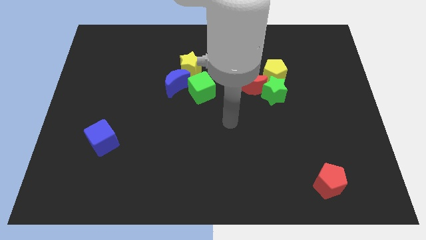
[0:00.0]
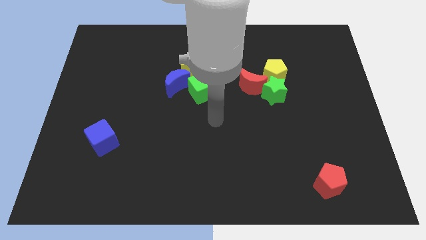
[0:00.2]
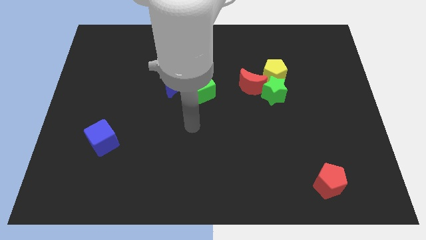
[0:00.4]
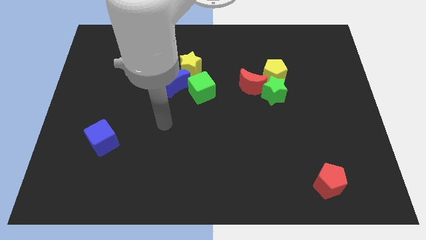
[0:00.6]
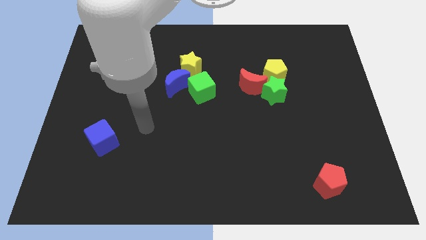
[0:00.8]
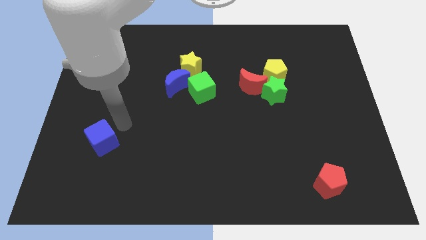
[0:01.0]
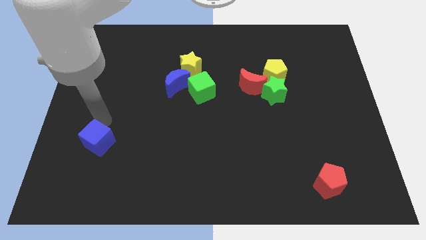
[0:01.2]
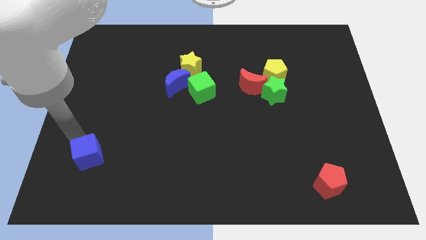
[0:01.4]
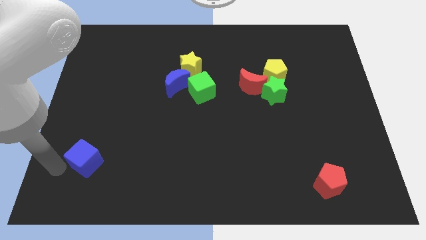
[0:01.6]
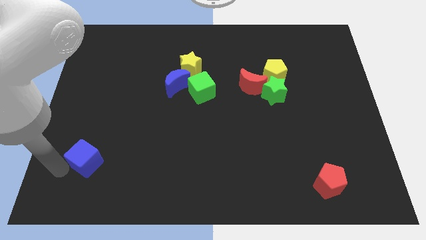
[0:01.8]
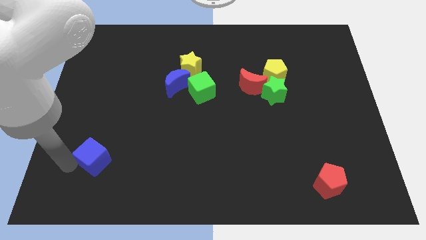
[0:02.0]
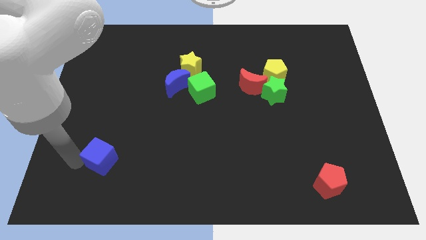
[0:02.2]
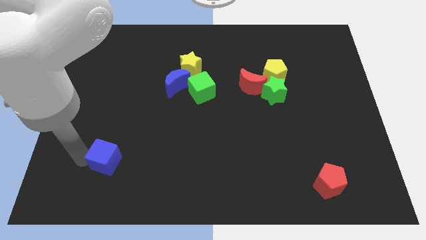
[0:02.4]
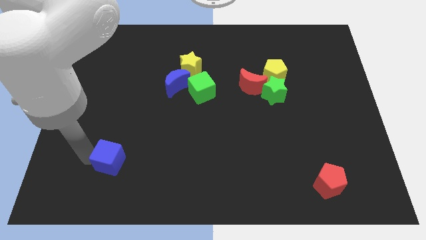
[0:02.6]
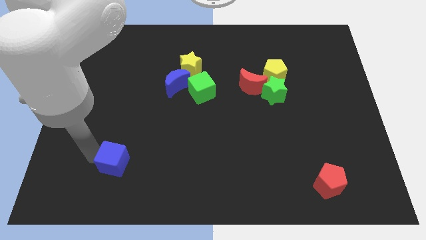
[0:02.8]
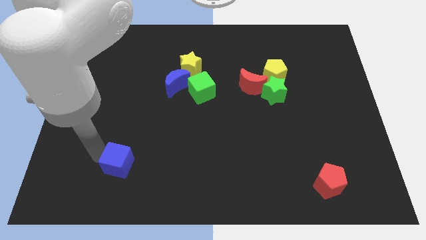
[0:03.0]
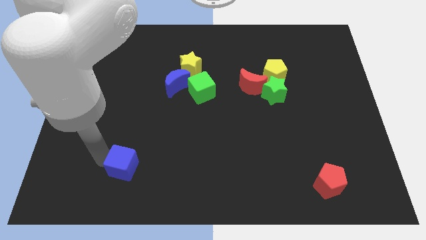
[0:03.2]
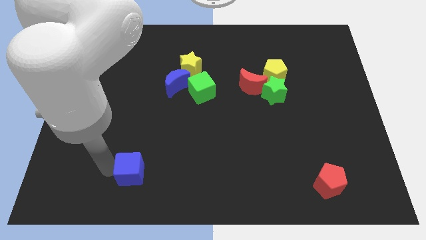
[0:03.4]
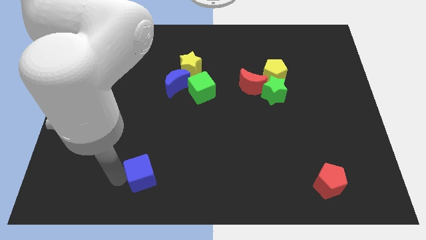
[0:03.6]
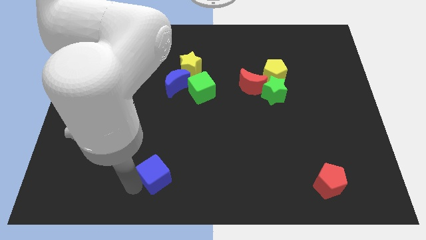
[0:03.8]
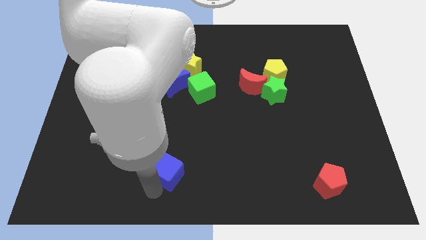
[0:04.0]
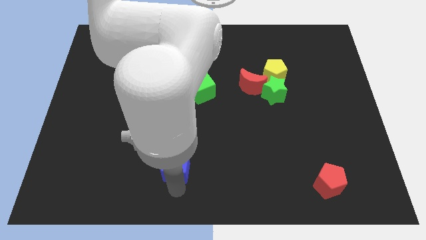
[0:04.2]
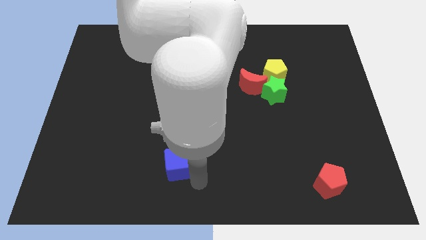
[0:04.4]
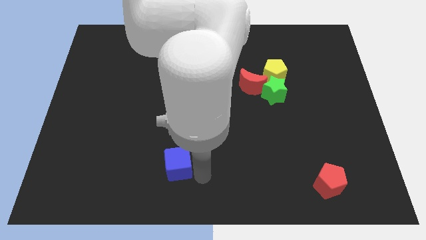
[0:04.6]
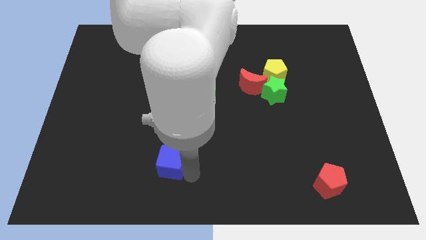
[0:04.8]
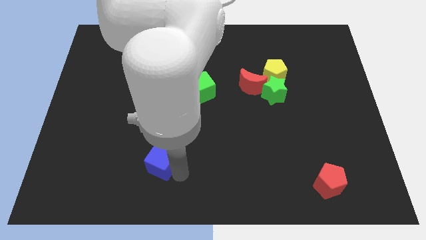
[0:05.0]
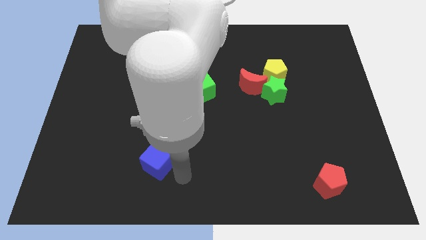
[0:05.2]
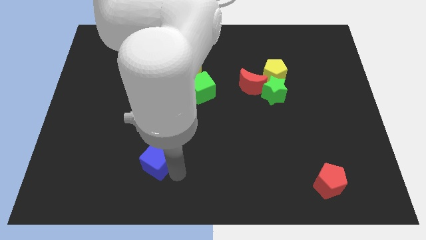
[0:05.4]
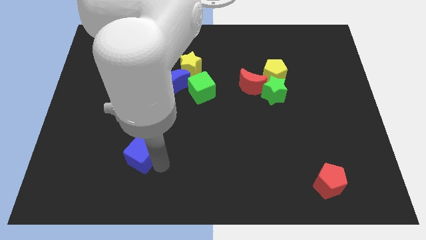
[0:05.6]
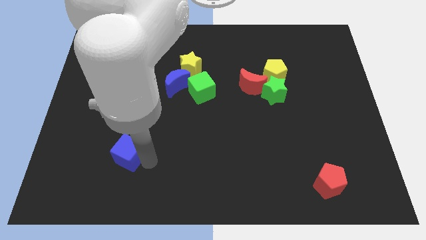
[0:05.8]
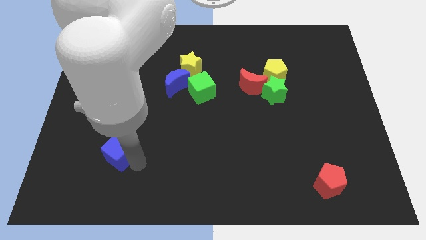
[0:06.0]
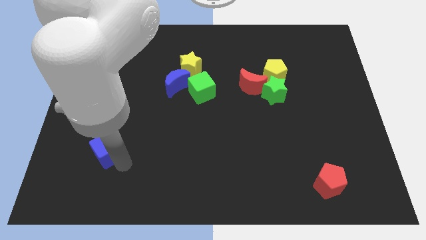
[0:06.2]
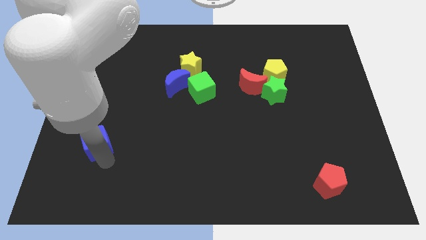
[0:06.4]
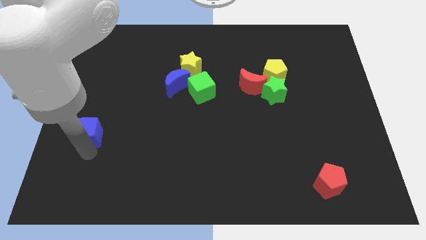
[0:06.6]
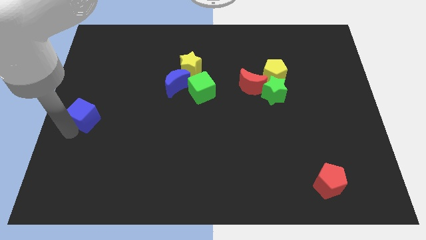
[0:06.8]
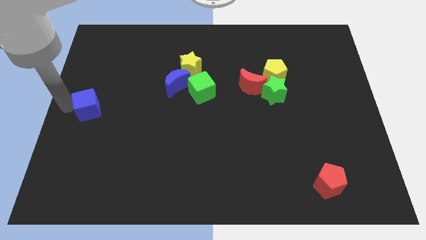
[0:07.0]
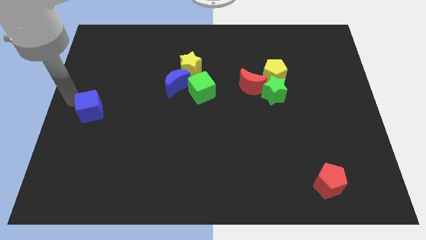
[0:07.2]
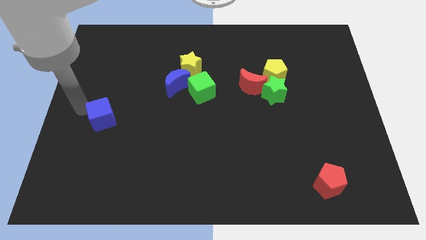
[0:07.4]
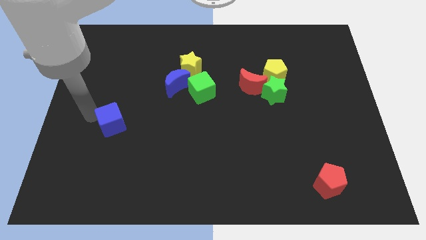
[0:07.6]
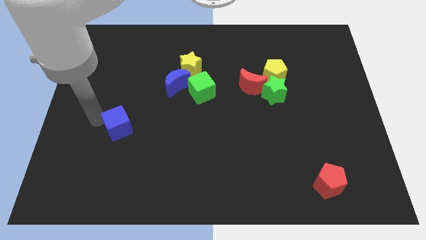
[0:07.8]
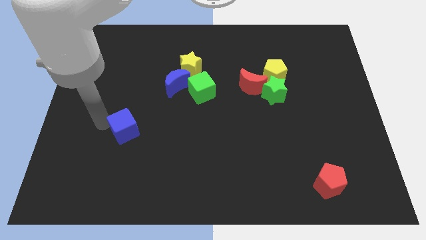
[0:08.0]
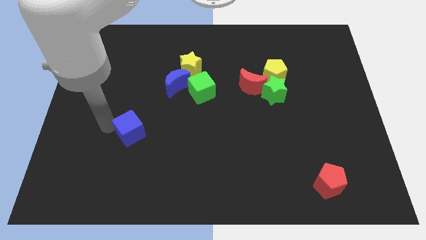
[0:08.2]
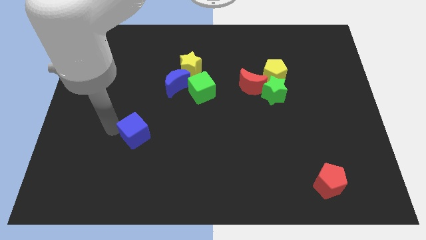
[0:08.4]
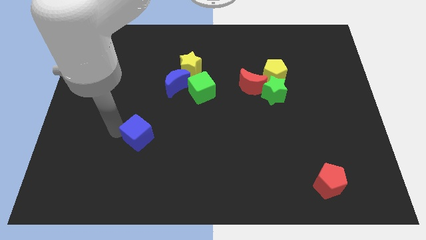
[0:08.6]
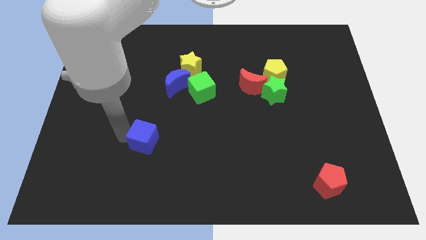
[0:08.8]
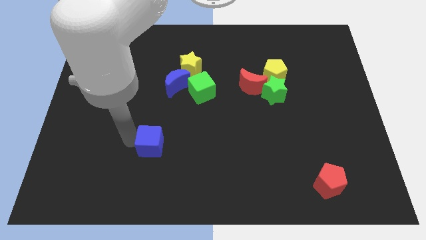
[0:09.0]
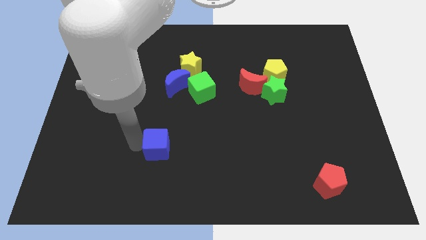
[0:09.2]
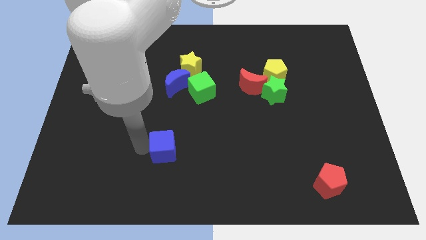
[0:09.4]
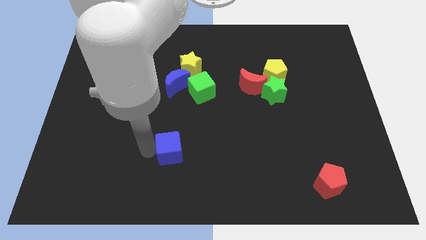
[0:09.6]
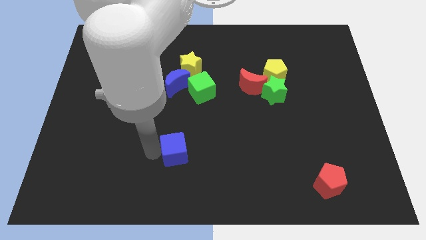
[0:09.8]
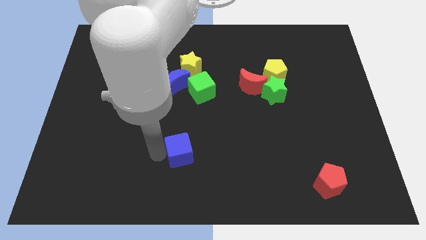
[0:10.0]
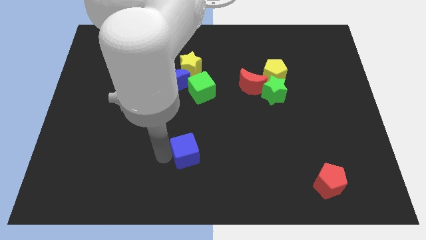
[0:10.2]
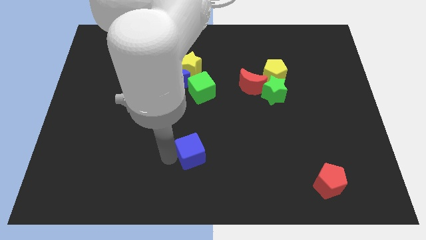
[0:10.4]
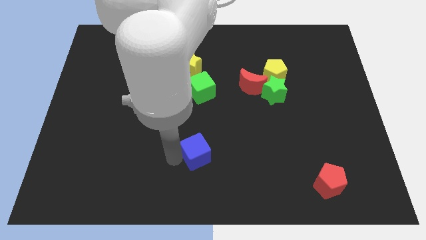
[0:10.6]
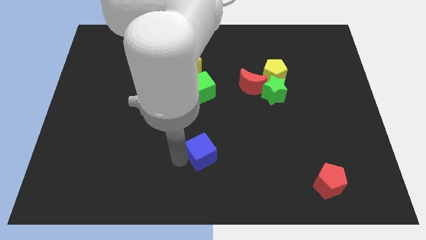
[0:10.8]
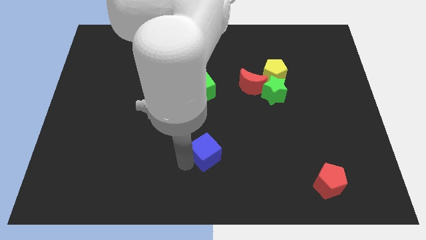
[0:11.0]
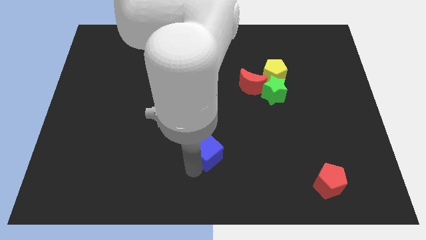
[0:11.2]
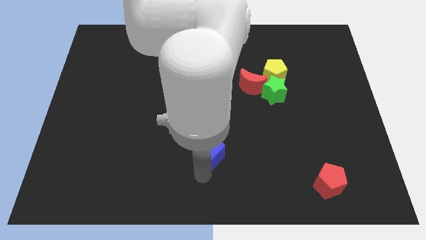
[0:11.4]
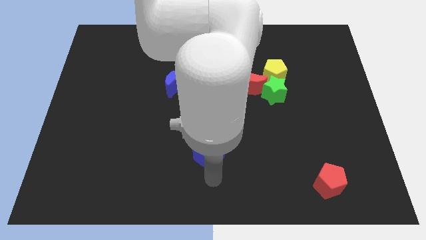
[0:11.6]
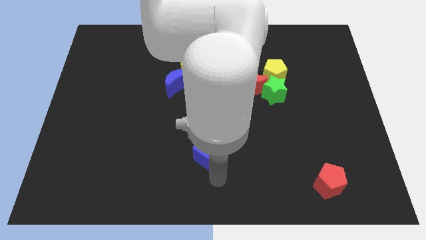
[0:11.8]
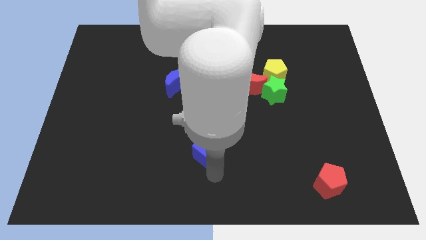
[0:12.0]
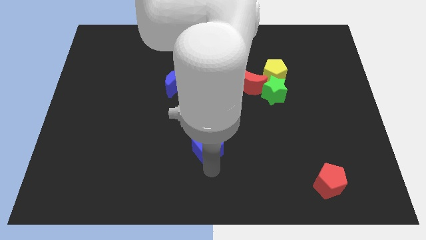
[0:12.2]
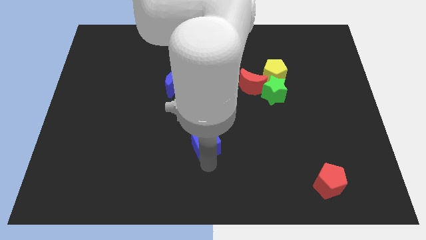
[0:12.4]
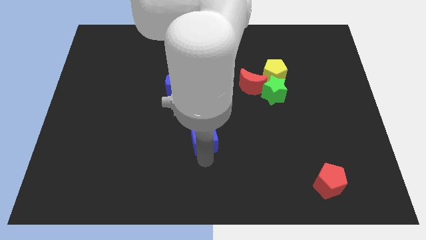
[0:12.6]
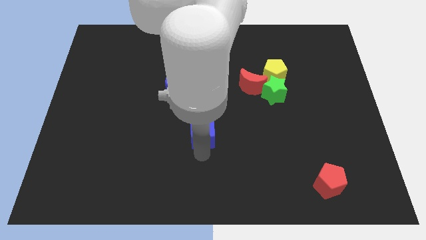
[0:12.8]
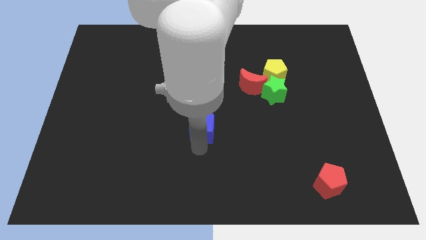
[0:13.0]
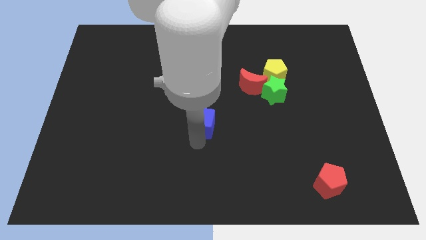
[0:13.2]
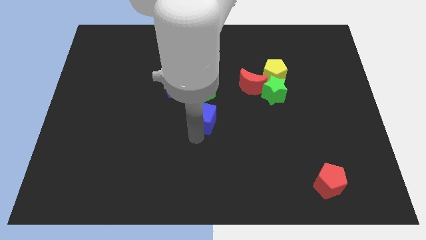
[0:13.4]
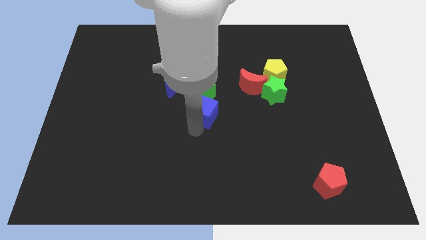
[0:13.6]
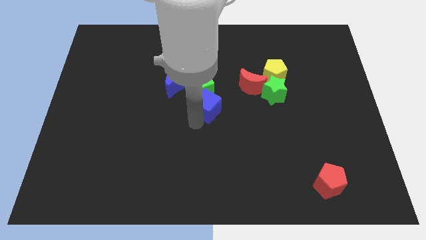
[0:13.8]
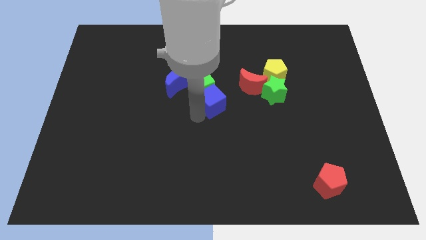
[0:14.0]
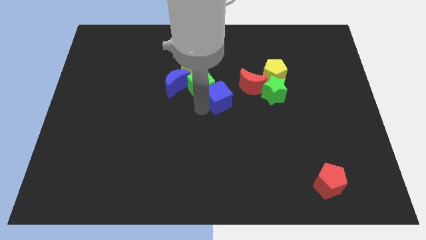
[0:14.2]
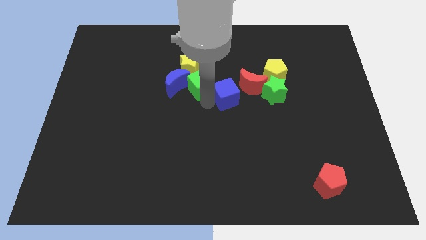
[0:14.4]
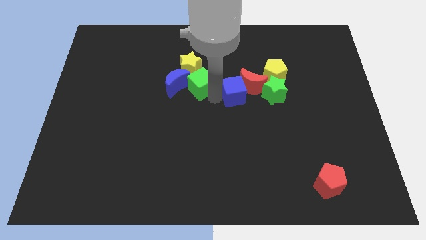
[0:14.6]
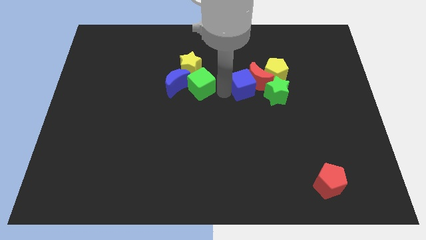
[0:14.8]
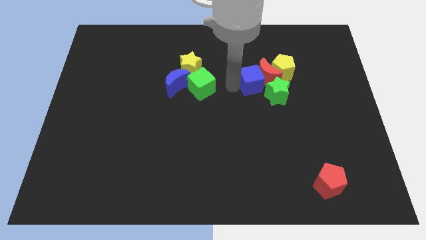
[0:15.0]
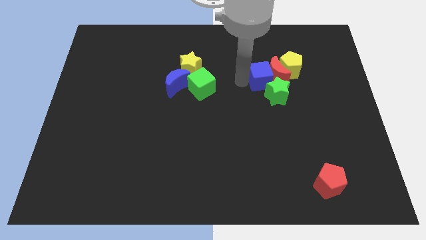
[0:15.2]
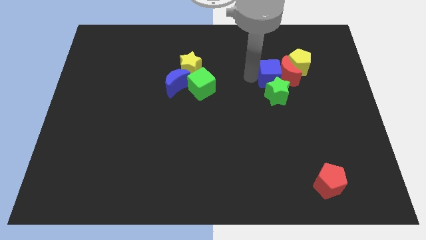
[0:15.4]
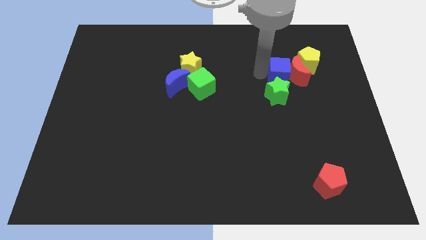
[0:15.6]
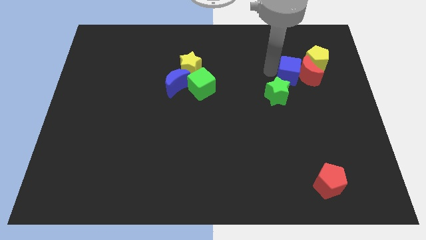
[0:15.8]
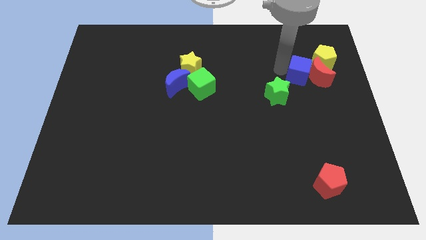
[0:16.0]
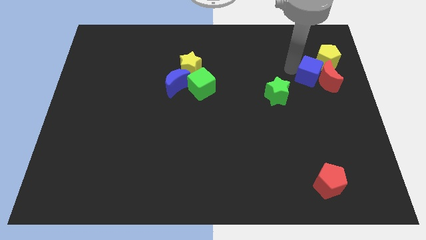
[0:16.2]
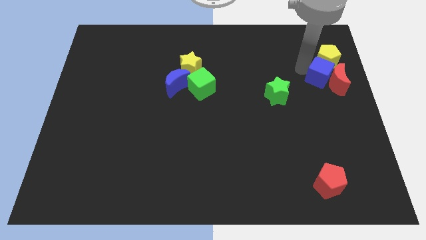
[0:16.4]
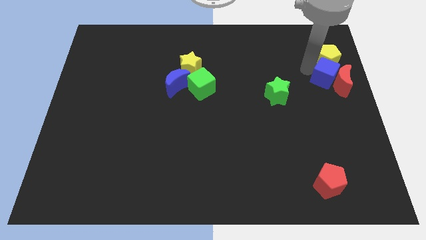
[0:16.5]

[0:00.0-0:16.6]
slide the blue cube to the center right
